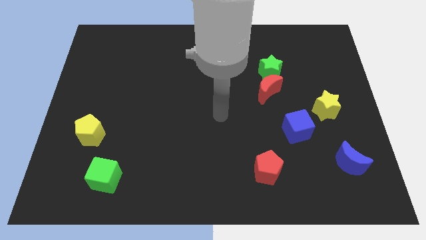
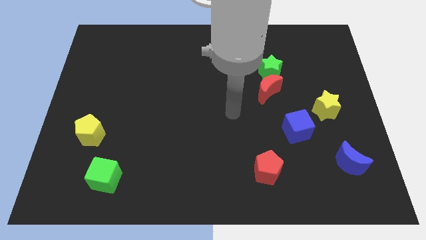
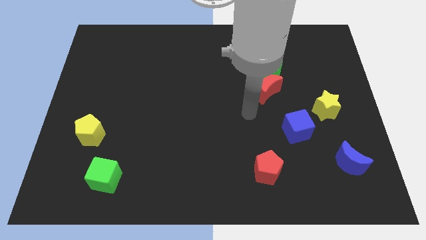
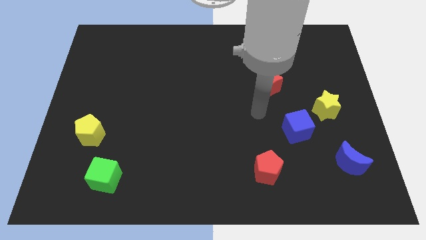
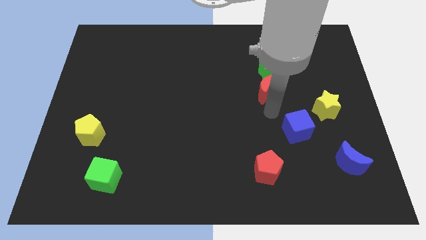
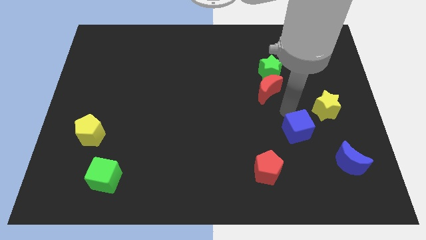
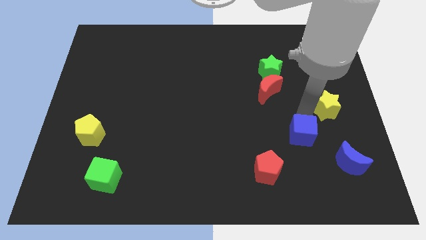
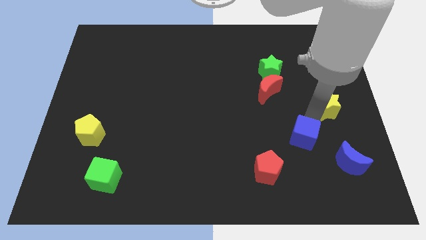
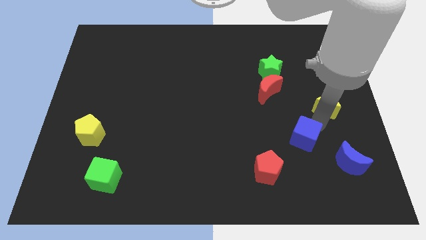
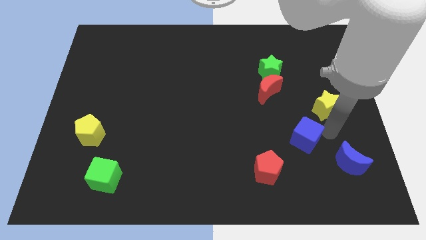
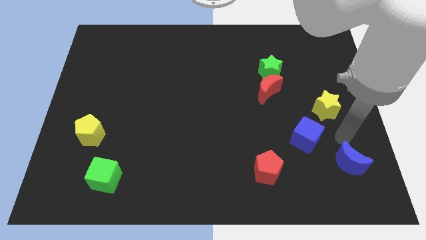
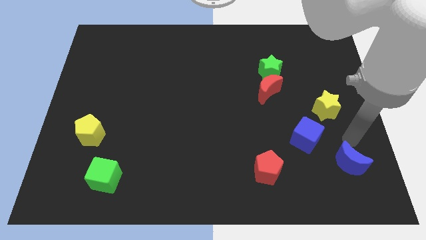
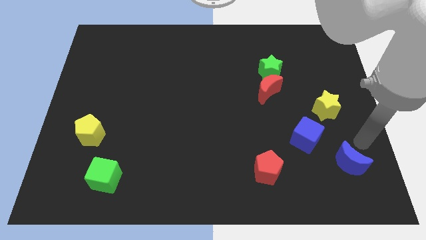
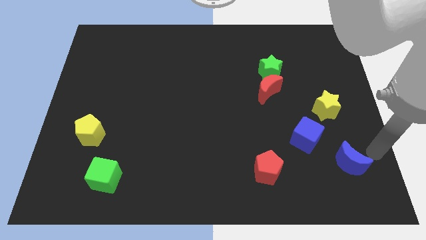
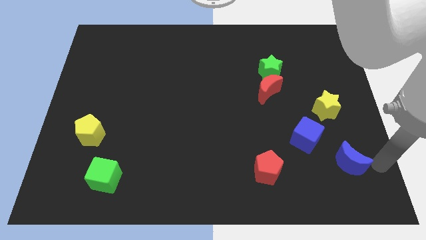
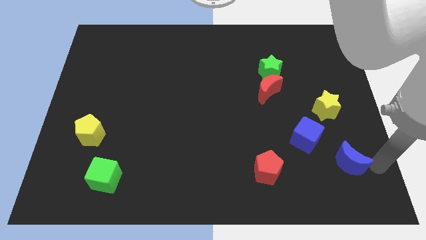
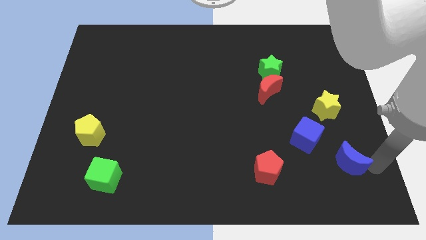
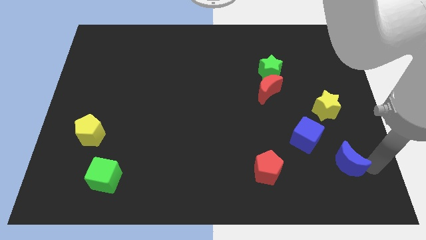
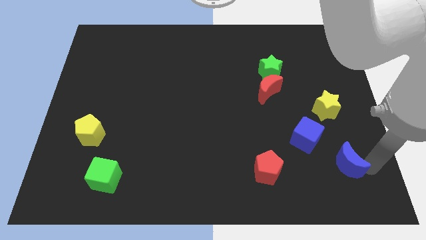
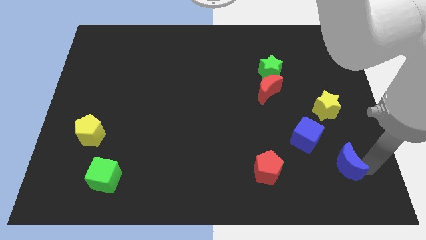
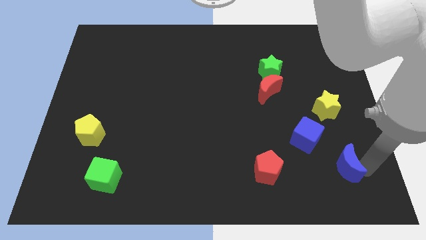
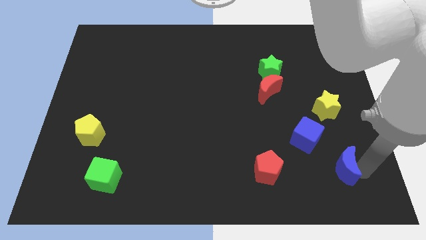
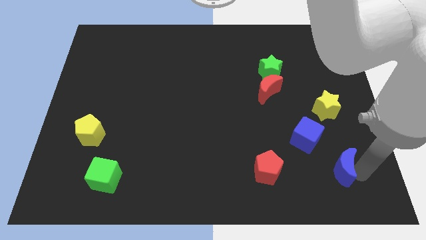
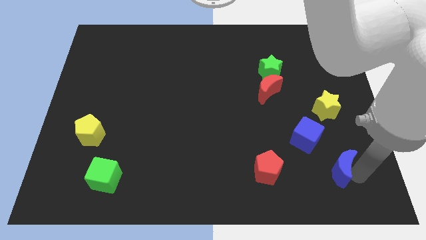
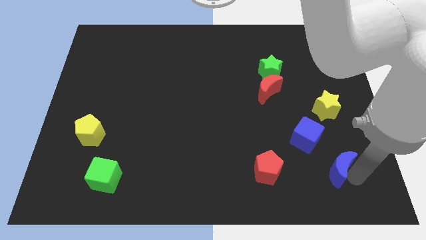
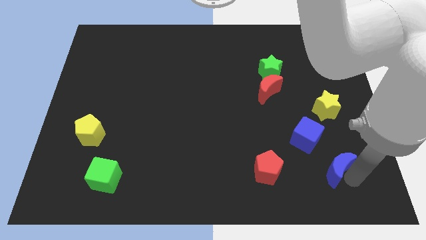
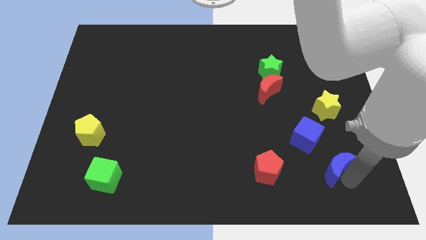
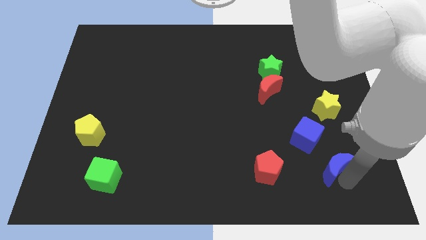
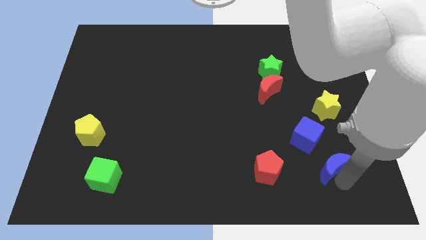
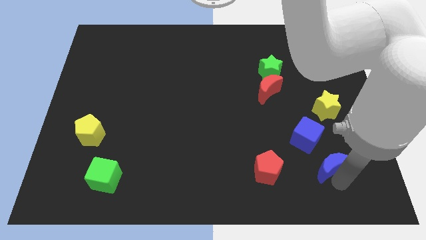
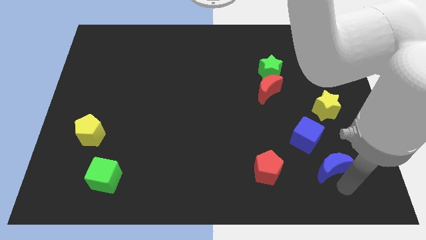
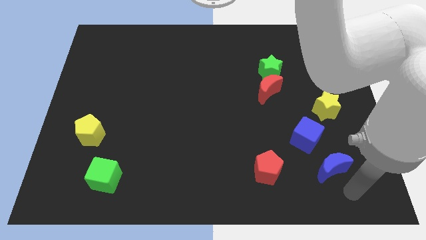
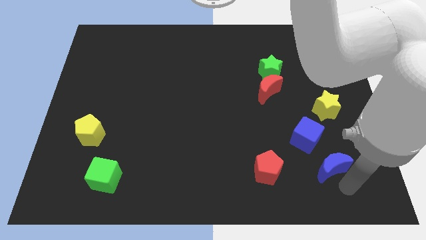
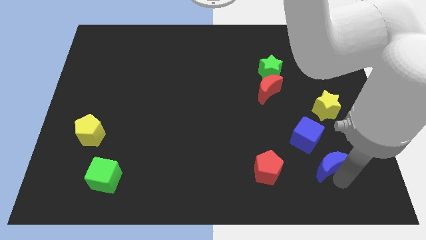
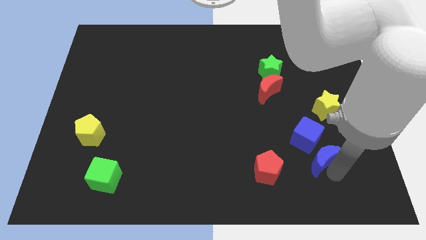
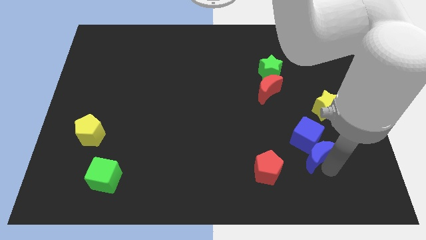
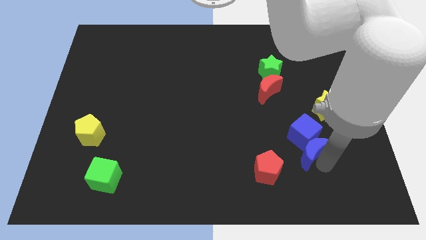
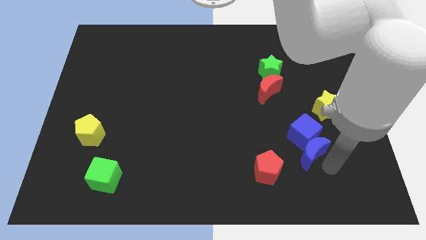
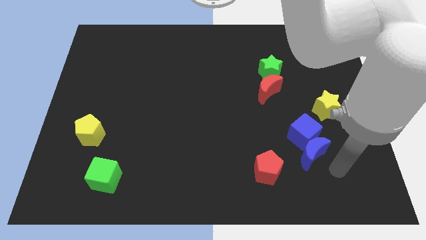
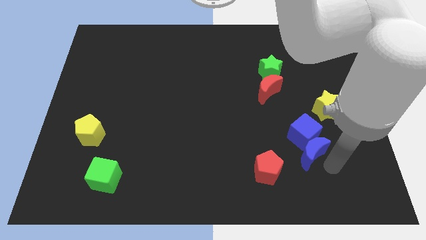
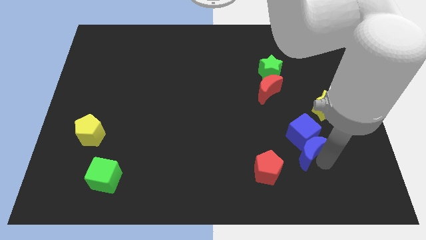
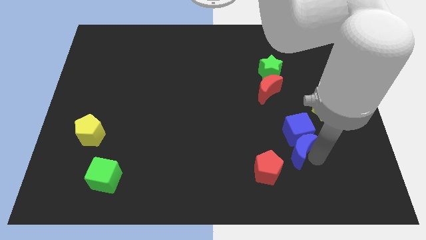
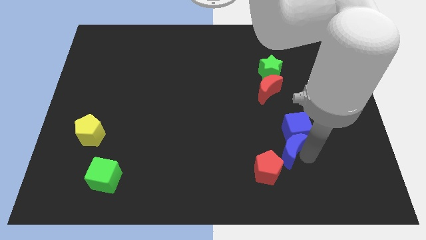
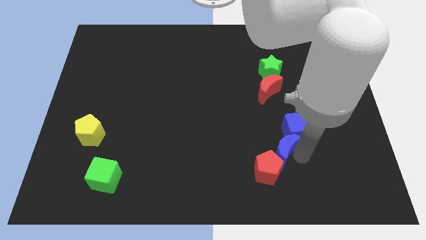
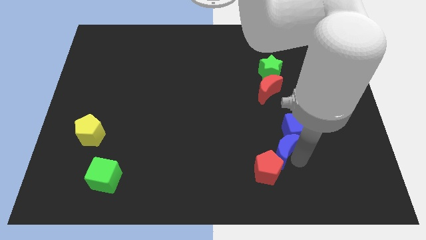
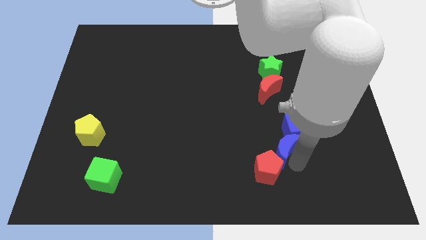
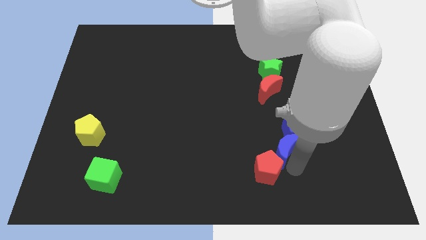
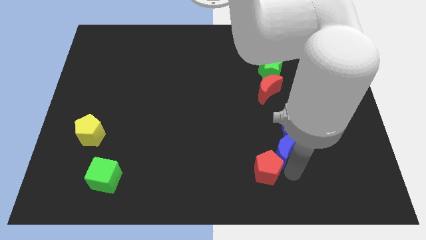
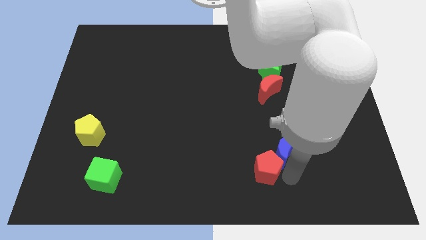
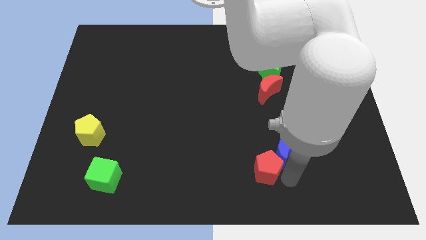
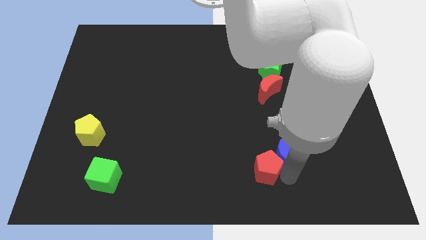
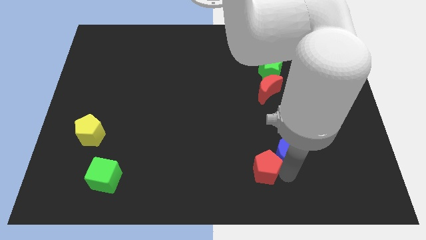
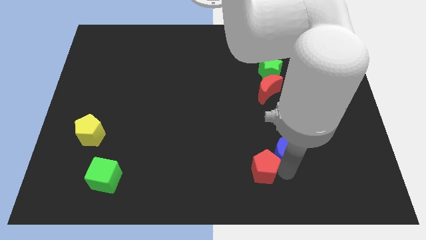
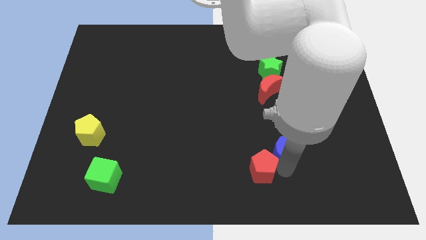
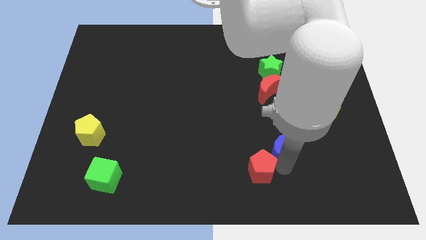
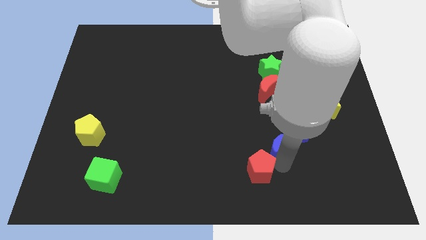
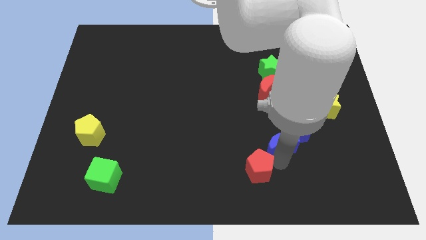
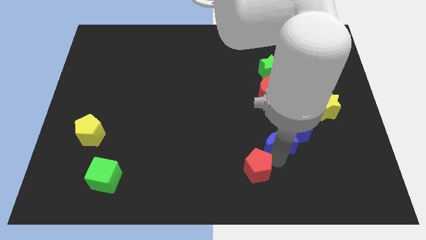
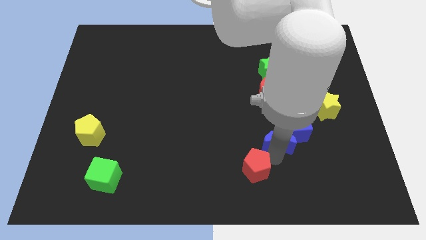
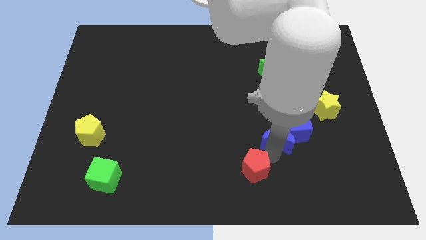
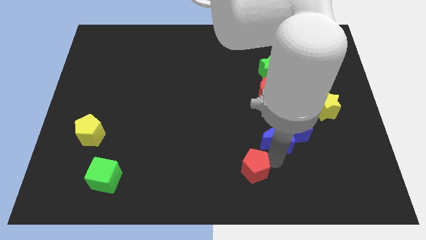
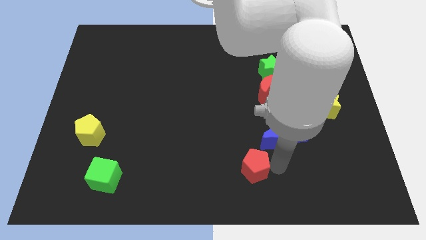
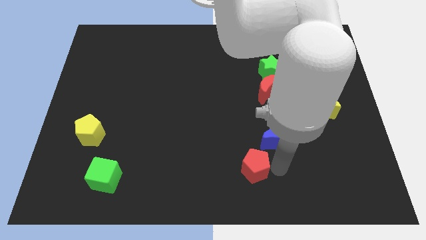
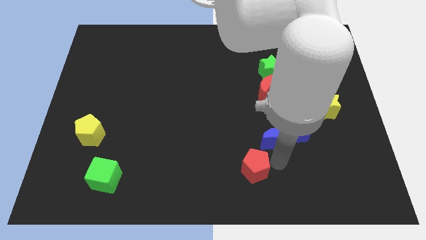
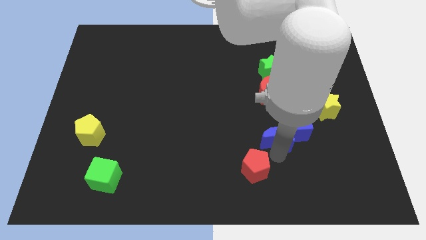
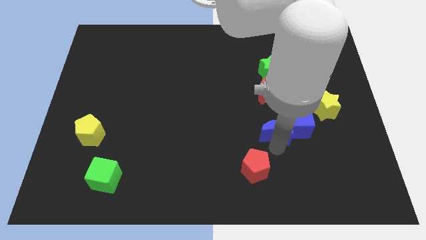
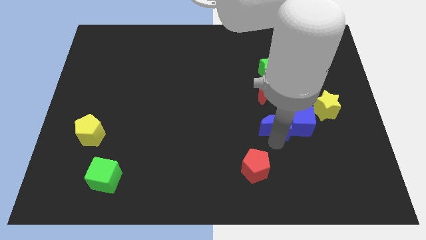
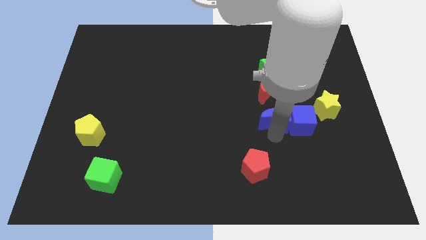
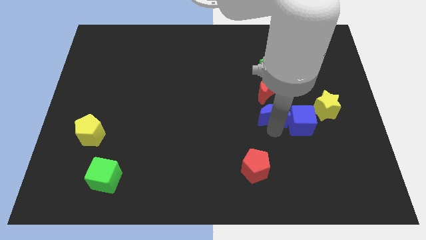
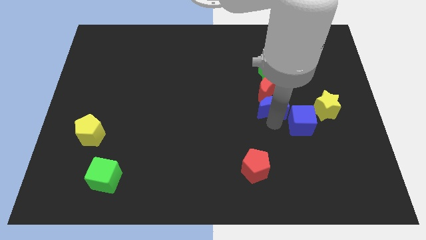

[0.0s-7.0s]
slide the blue moon towards the red moon

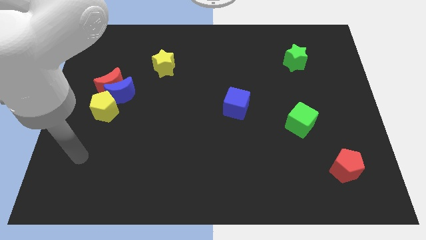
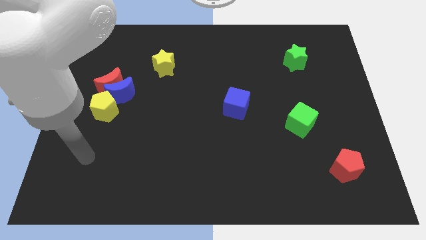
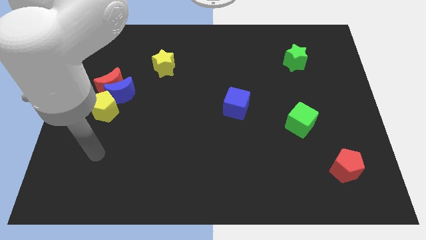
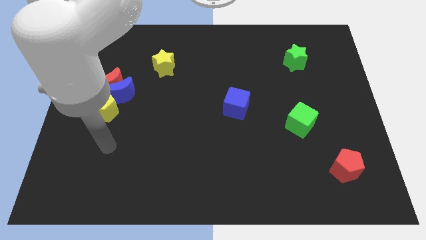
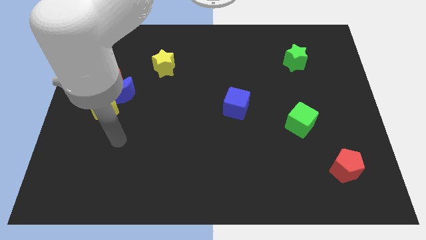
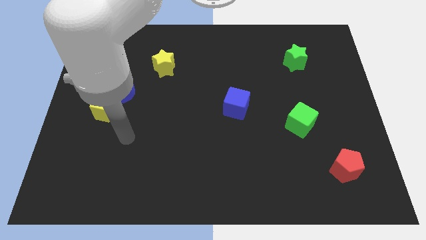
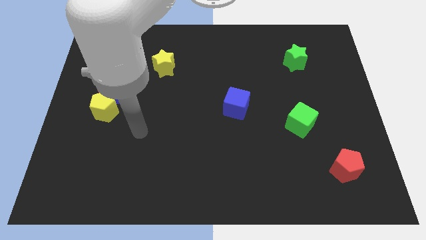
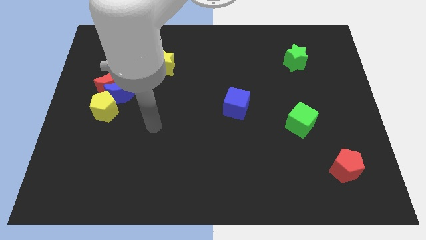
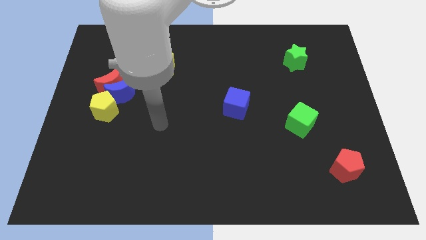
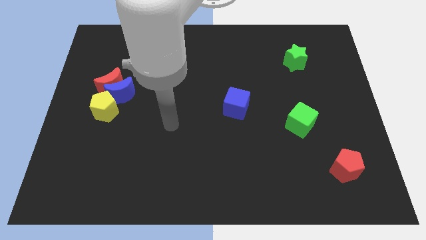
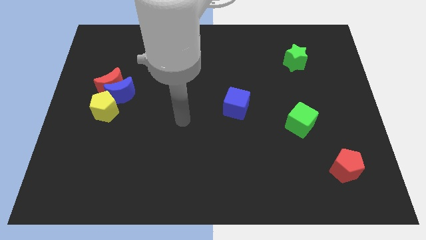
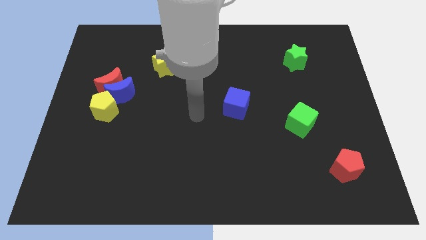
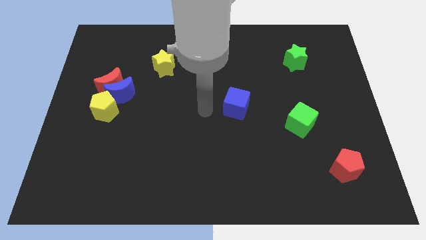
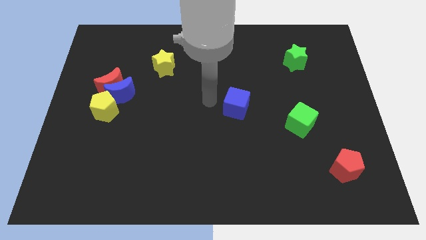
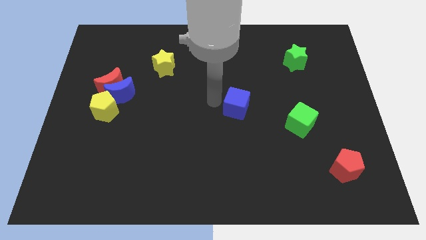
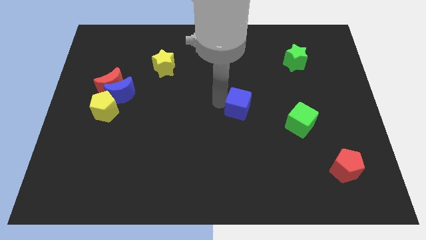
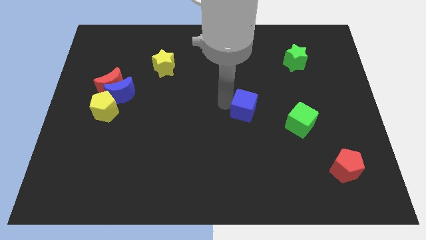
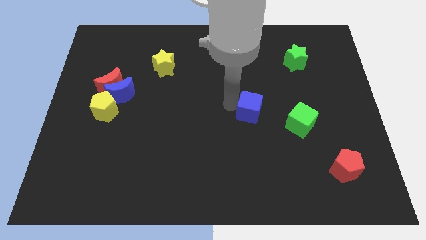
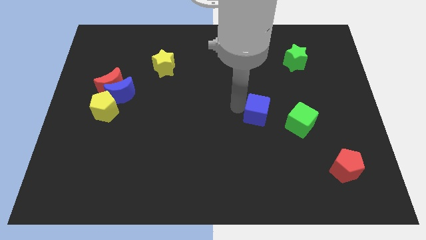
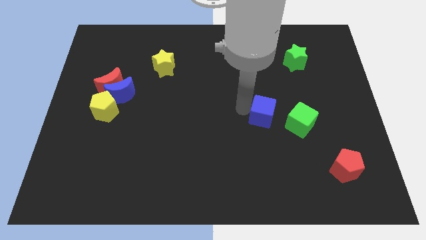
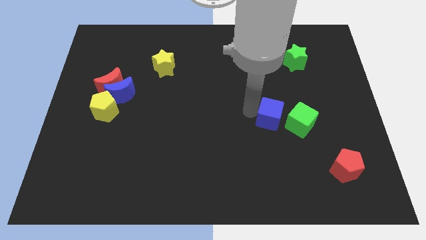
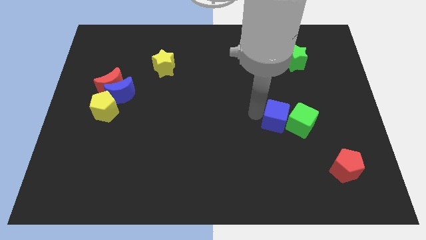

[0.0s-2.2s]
push the blue cube to the green cube
